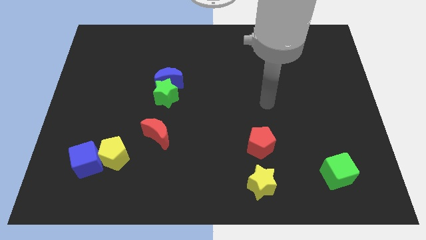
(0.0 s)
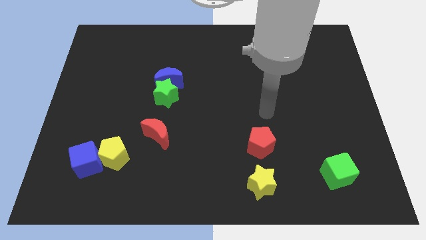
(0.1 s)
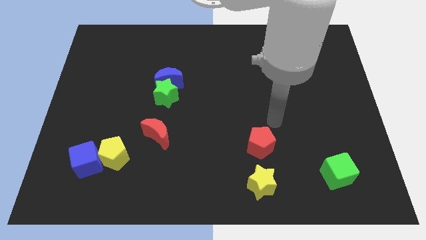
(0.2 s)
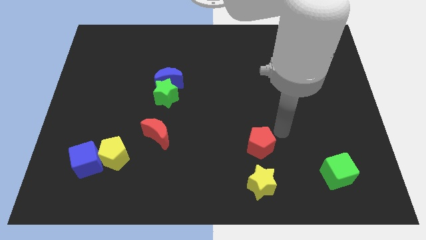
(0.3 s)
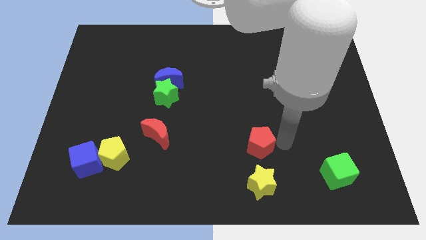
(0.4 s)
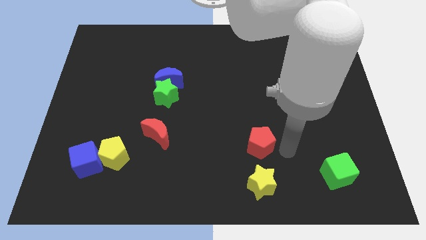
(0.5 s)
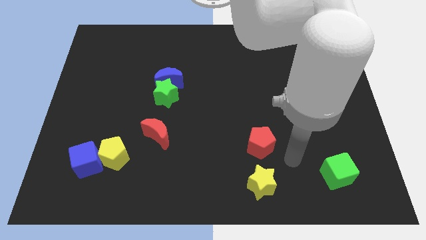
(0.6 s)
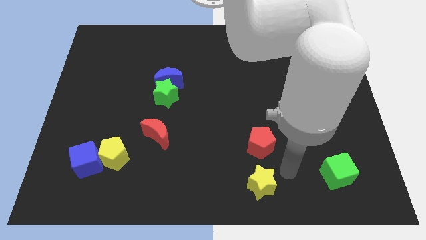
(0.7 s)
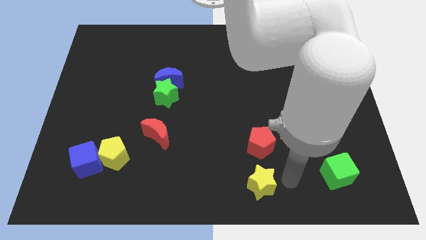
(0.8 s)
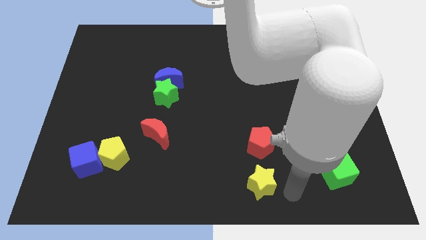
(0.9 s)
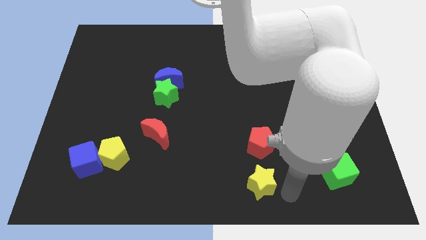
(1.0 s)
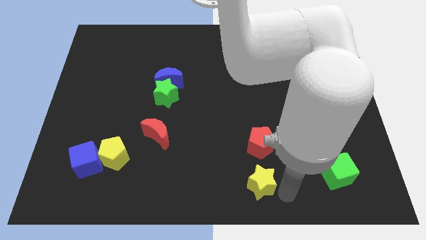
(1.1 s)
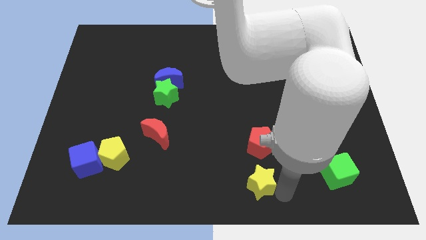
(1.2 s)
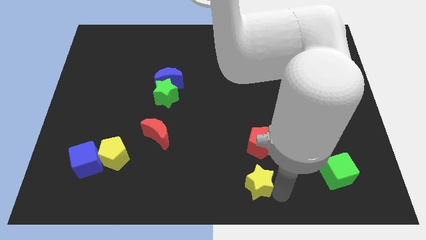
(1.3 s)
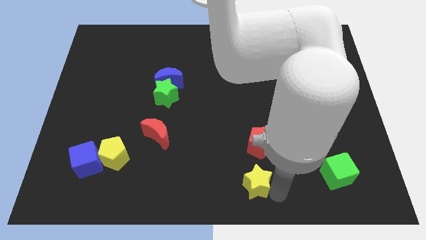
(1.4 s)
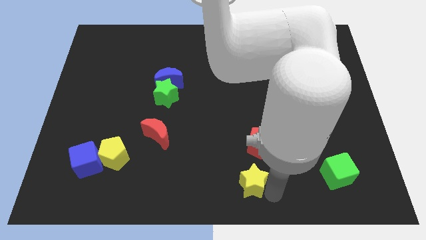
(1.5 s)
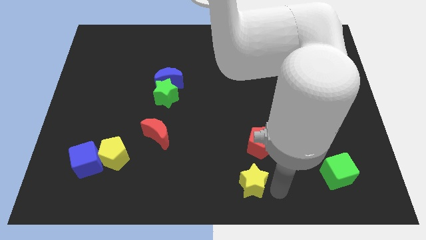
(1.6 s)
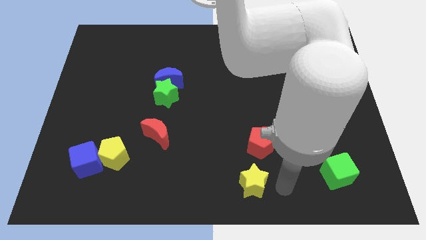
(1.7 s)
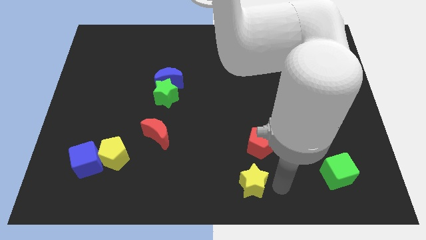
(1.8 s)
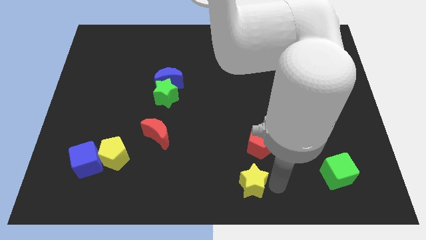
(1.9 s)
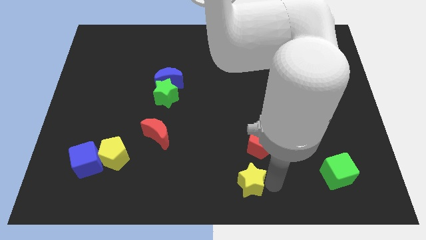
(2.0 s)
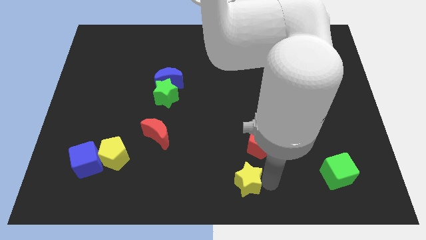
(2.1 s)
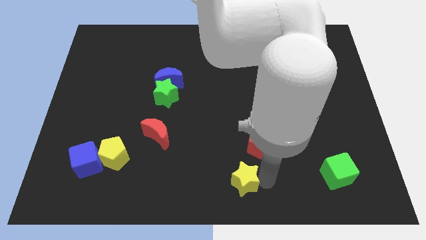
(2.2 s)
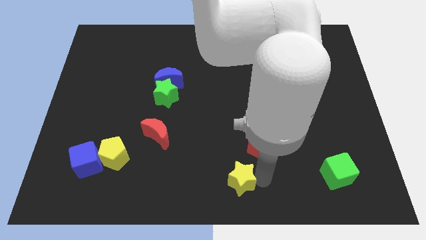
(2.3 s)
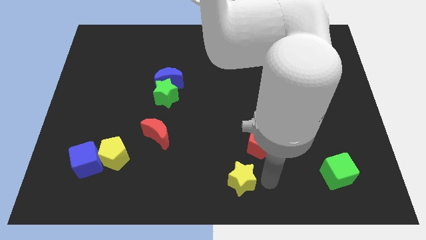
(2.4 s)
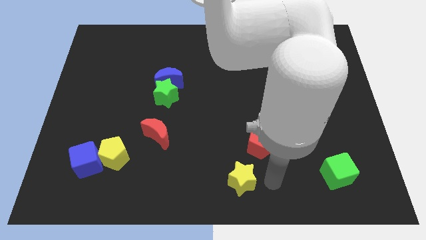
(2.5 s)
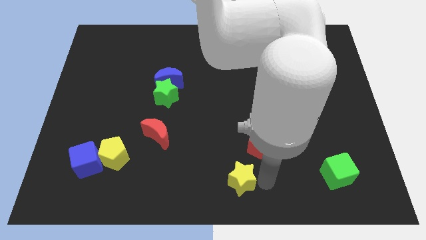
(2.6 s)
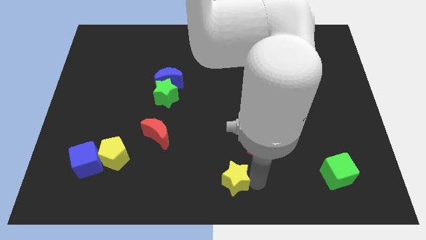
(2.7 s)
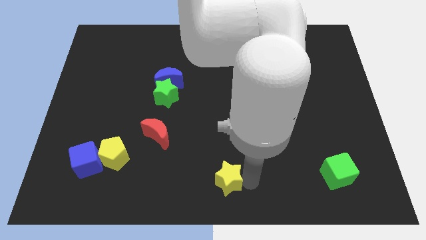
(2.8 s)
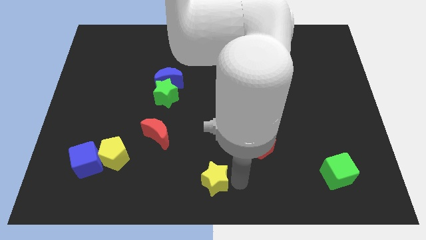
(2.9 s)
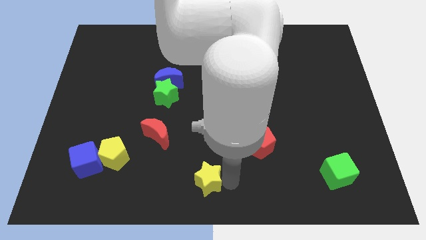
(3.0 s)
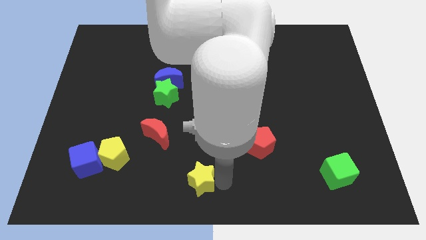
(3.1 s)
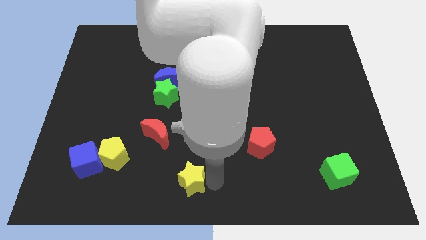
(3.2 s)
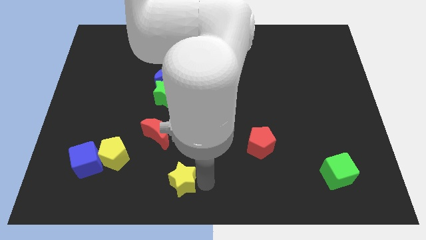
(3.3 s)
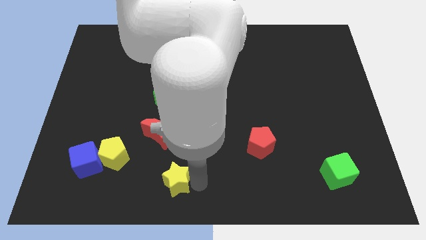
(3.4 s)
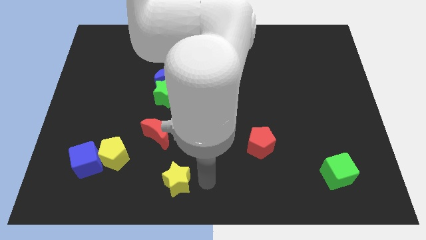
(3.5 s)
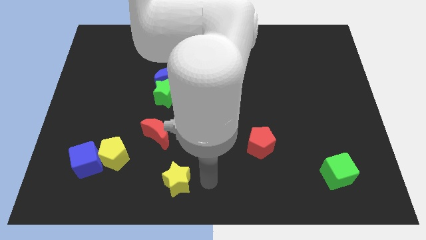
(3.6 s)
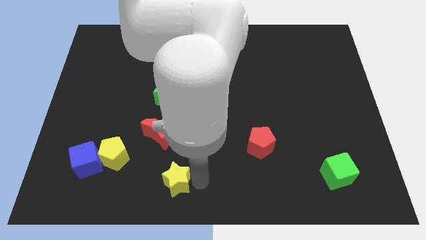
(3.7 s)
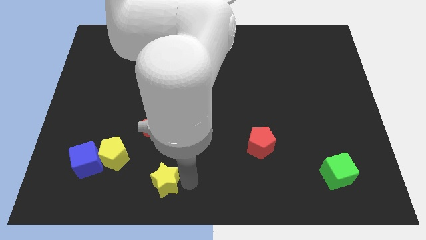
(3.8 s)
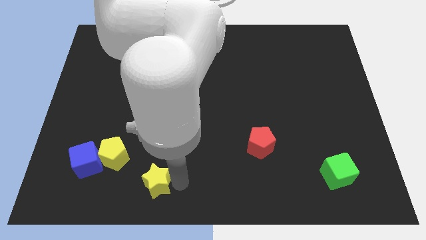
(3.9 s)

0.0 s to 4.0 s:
slide the yellow star left

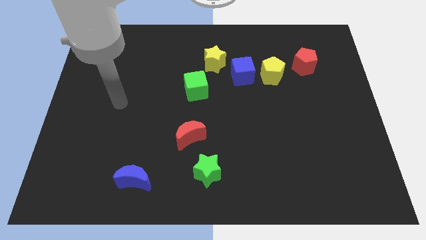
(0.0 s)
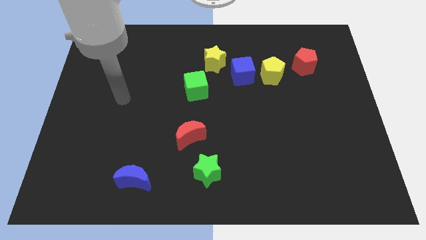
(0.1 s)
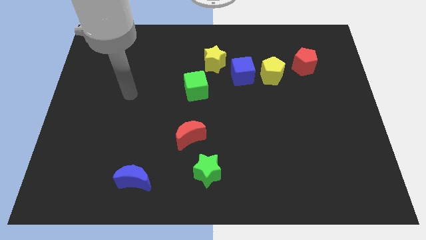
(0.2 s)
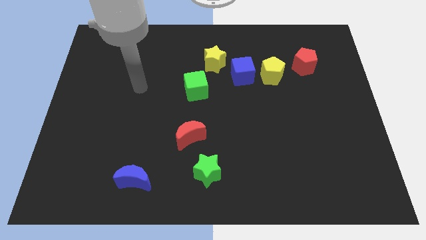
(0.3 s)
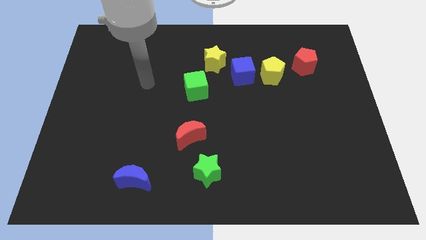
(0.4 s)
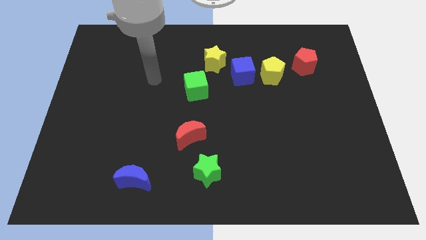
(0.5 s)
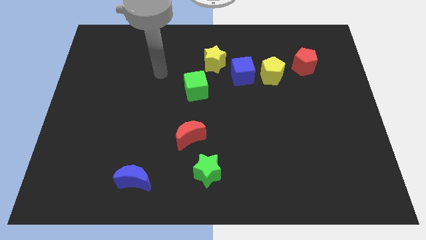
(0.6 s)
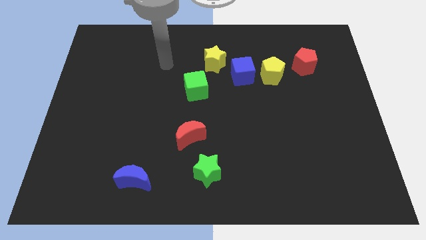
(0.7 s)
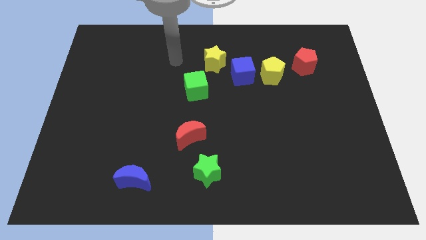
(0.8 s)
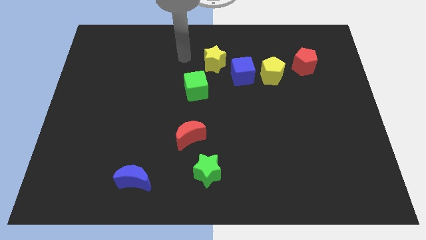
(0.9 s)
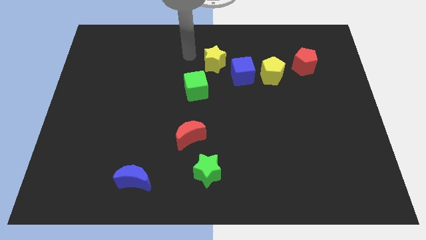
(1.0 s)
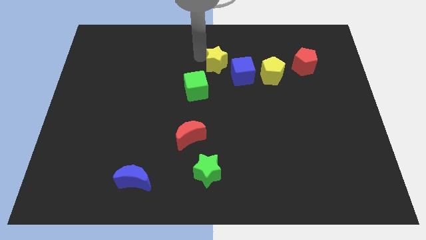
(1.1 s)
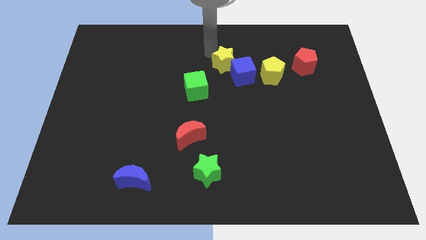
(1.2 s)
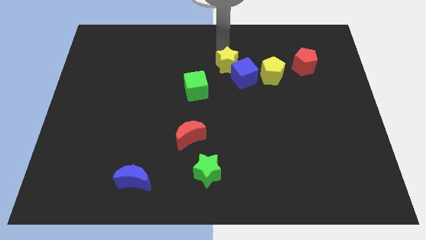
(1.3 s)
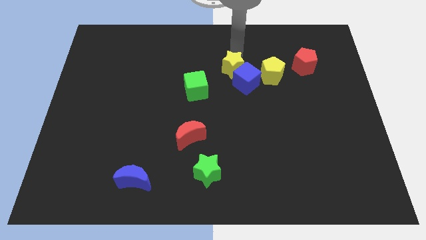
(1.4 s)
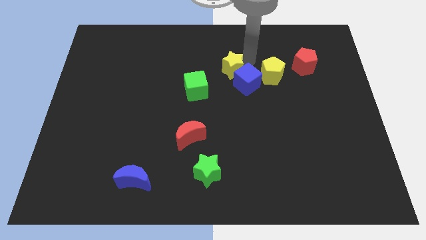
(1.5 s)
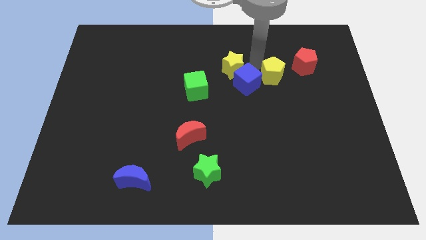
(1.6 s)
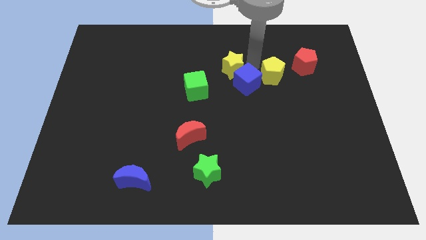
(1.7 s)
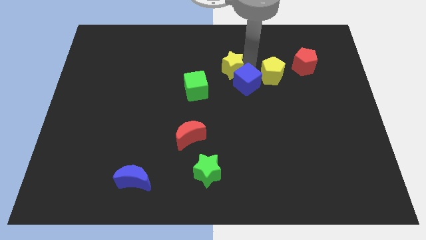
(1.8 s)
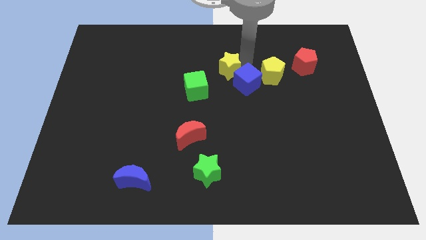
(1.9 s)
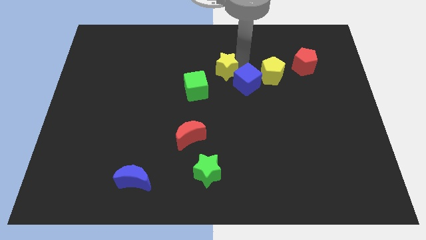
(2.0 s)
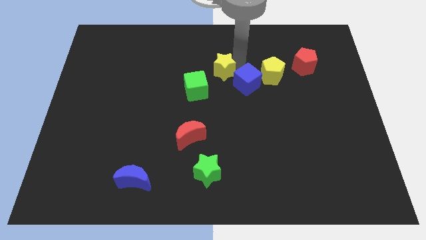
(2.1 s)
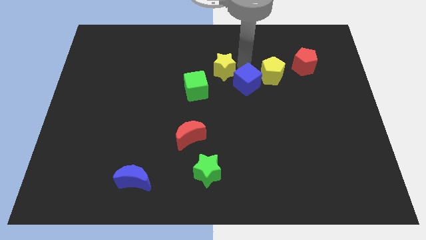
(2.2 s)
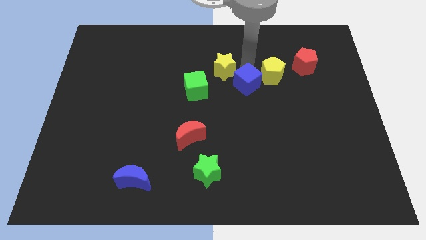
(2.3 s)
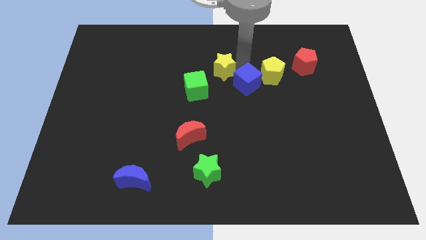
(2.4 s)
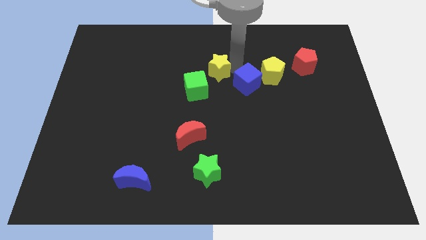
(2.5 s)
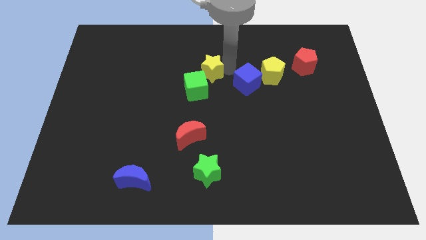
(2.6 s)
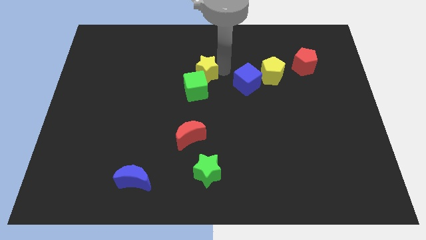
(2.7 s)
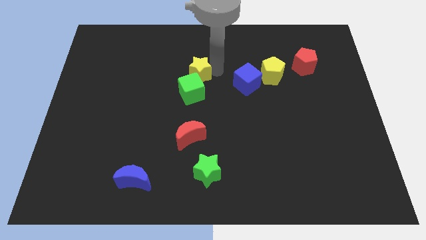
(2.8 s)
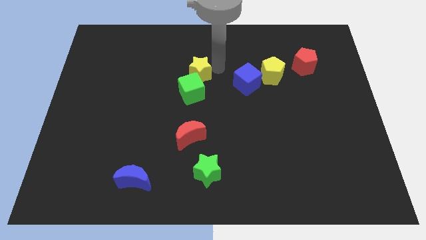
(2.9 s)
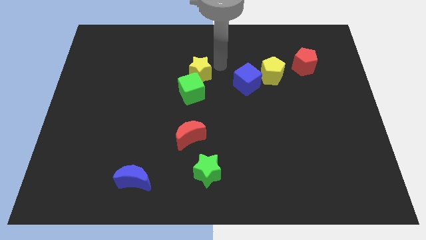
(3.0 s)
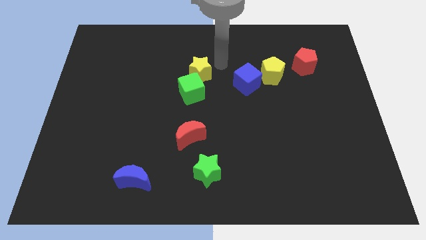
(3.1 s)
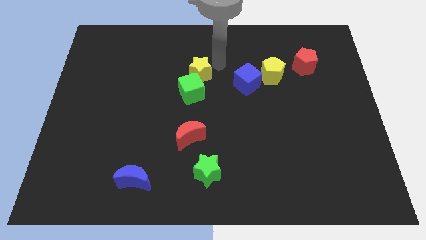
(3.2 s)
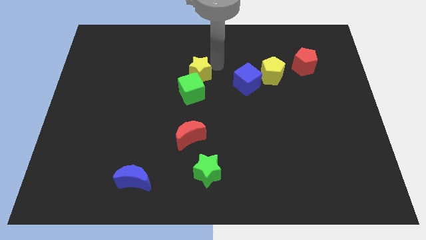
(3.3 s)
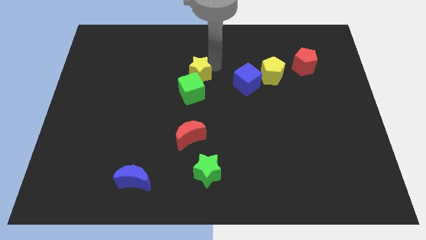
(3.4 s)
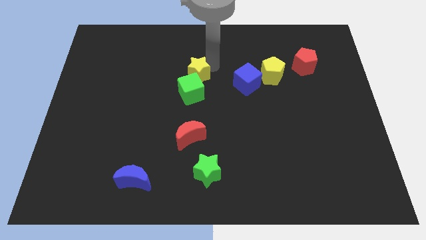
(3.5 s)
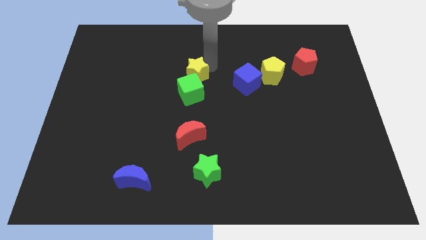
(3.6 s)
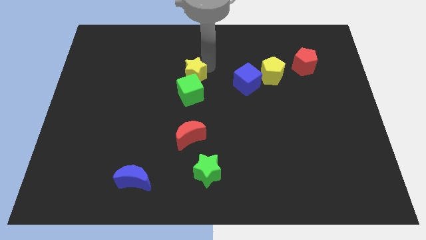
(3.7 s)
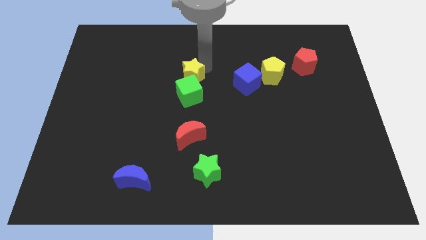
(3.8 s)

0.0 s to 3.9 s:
slide the yellow star a little diagonally down and to the left

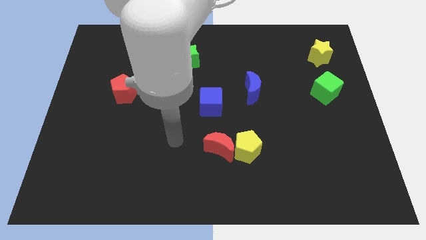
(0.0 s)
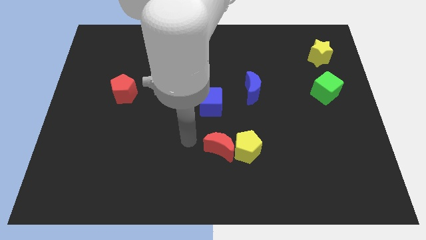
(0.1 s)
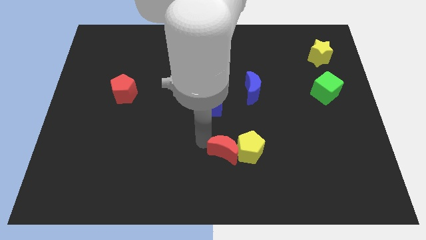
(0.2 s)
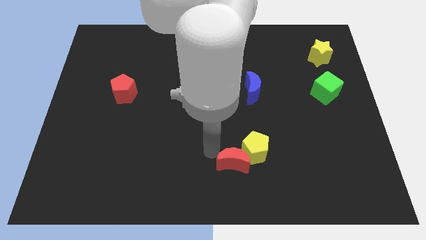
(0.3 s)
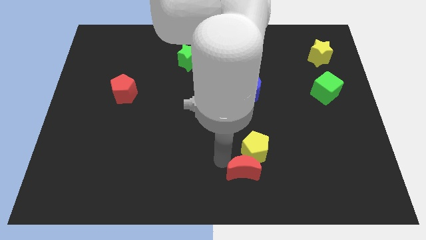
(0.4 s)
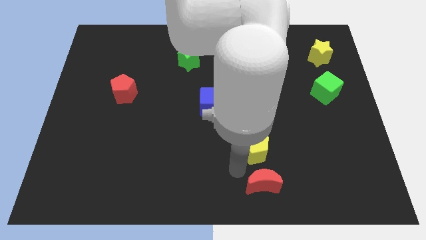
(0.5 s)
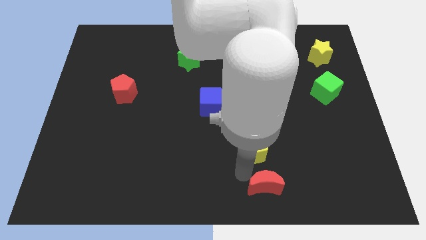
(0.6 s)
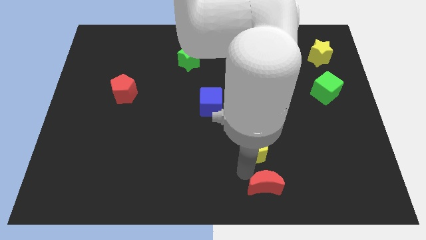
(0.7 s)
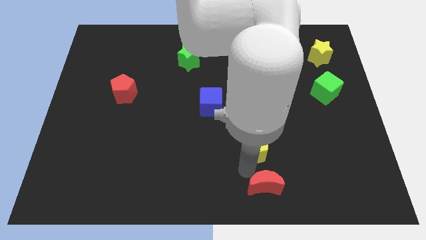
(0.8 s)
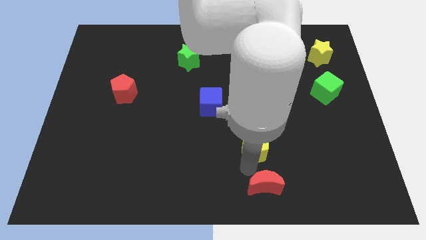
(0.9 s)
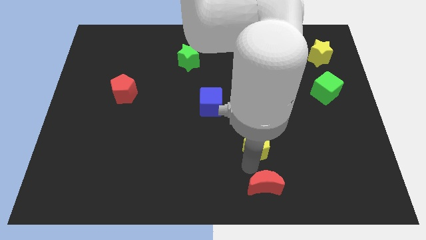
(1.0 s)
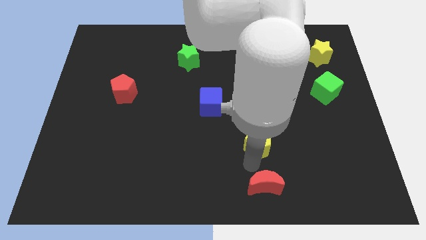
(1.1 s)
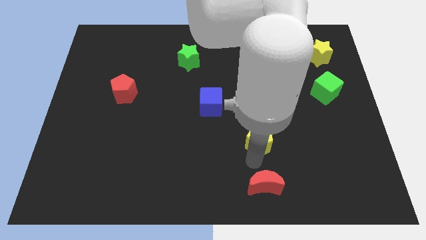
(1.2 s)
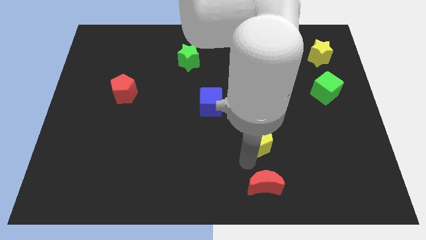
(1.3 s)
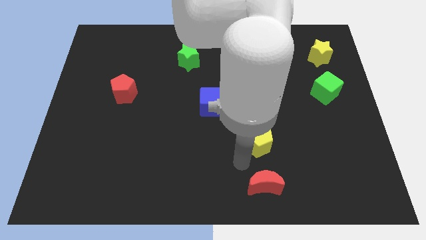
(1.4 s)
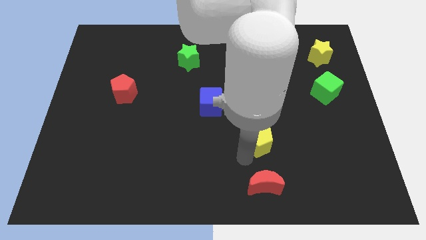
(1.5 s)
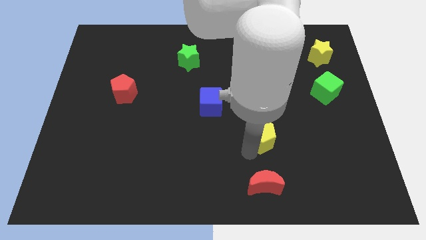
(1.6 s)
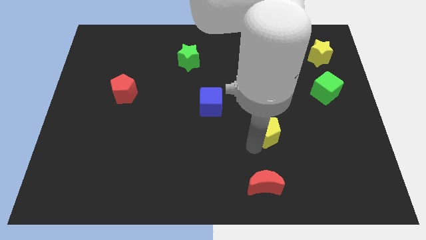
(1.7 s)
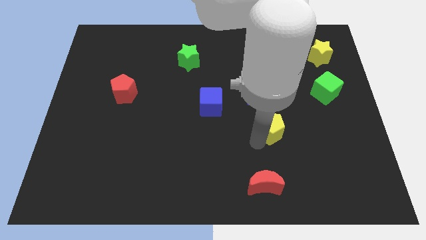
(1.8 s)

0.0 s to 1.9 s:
push the yellow pentagon a little up and then to the right
